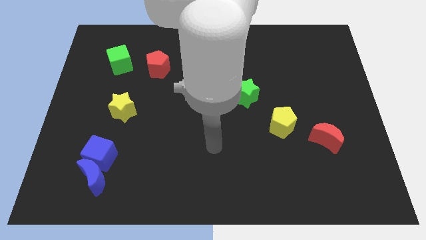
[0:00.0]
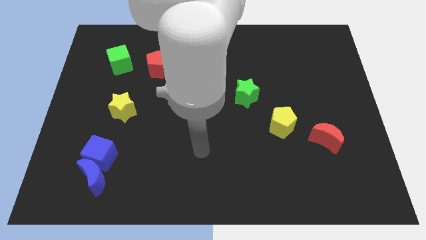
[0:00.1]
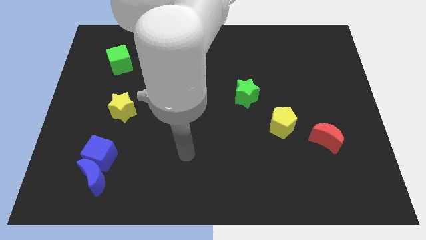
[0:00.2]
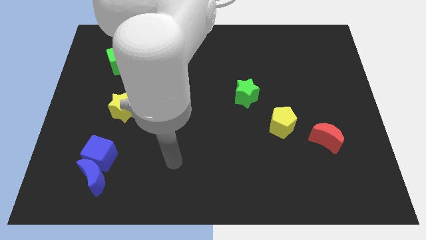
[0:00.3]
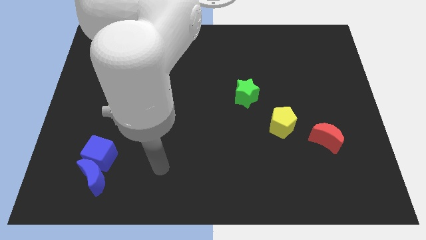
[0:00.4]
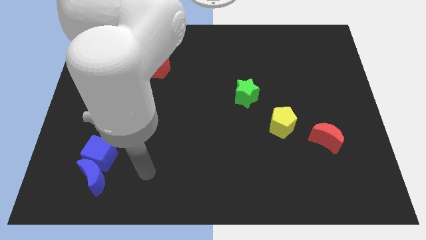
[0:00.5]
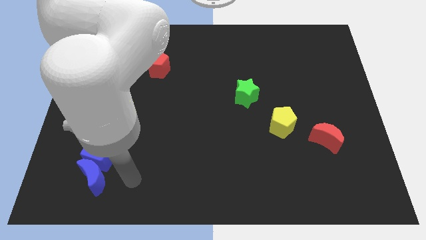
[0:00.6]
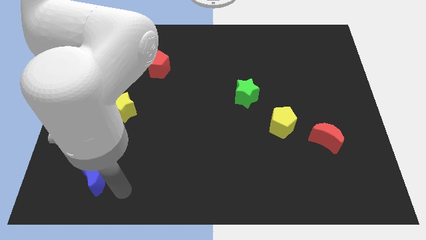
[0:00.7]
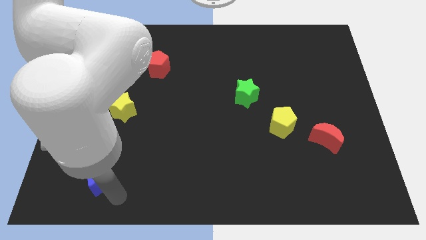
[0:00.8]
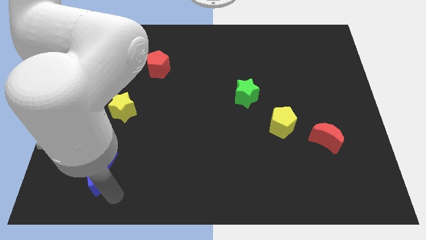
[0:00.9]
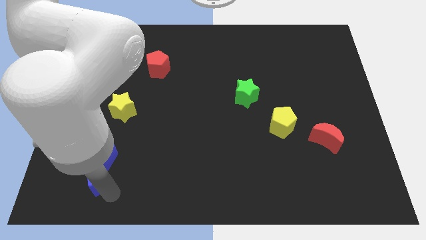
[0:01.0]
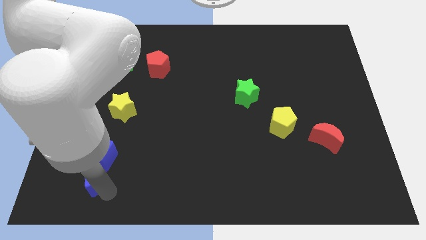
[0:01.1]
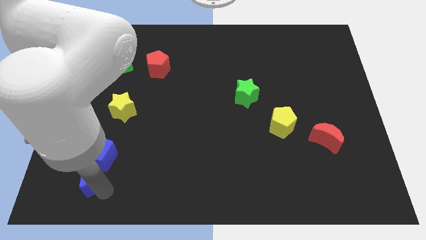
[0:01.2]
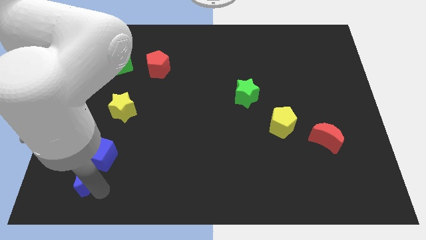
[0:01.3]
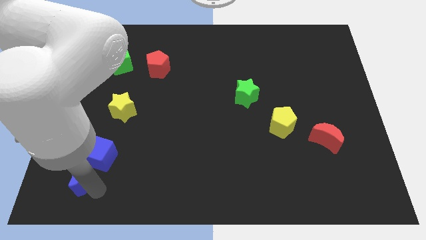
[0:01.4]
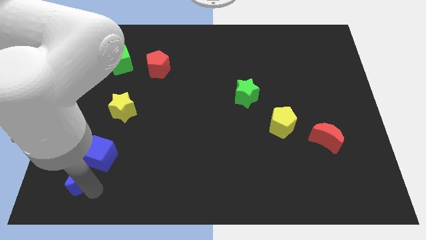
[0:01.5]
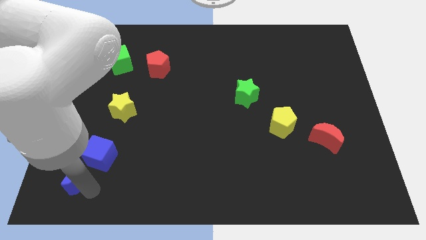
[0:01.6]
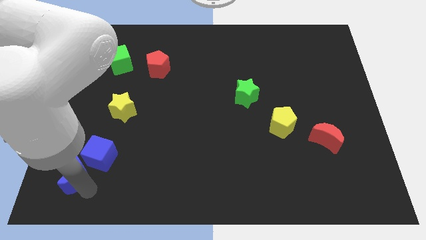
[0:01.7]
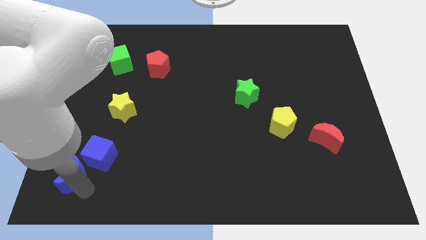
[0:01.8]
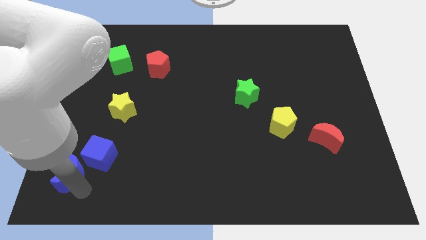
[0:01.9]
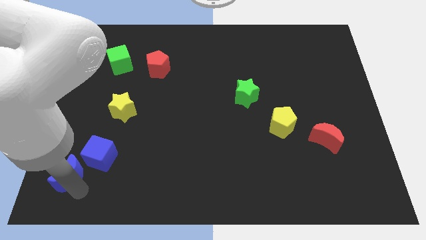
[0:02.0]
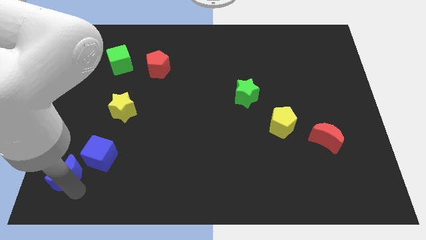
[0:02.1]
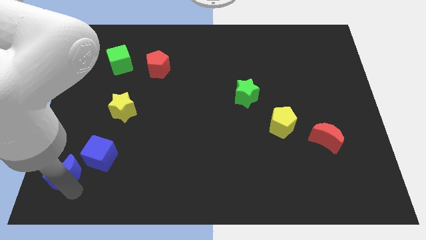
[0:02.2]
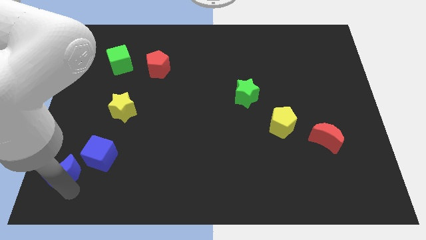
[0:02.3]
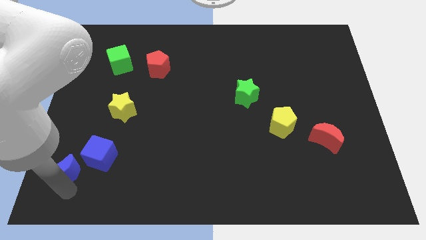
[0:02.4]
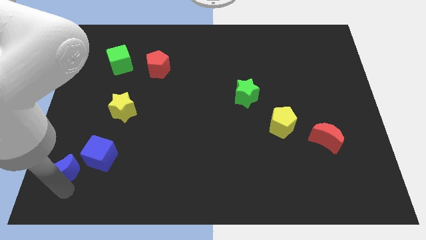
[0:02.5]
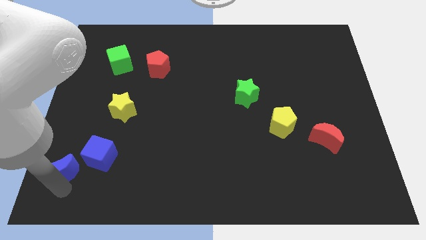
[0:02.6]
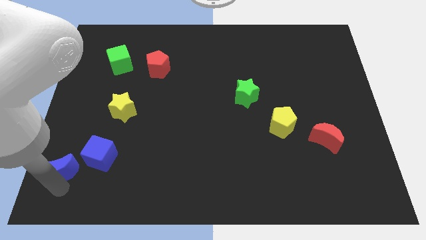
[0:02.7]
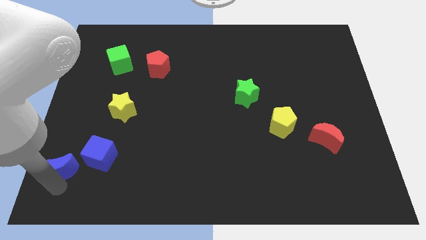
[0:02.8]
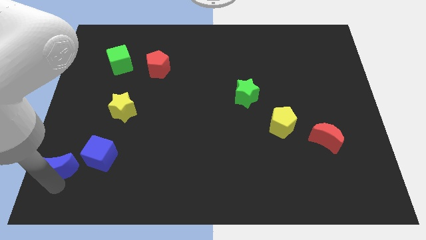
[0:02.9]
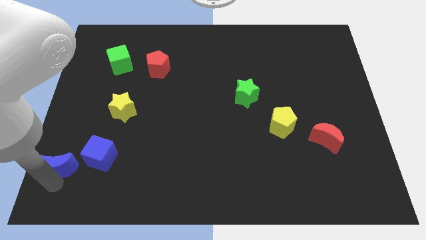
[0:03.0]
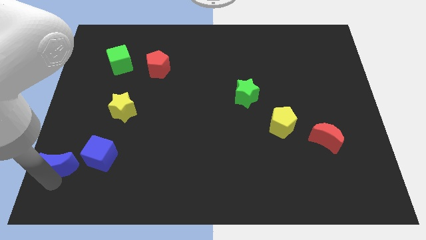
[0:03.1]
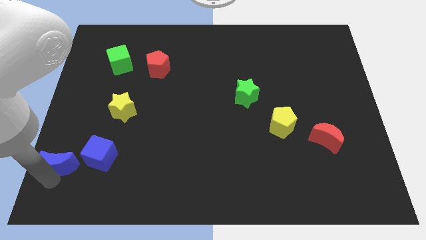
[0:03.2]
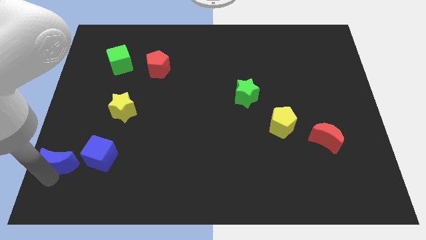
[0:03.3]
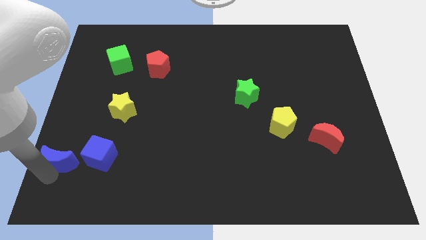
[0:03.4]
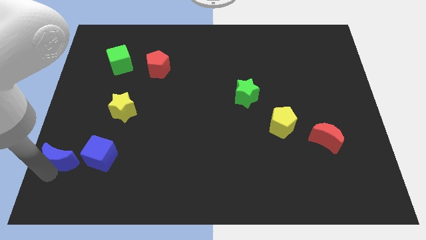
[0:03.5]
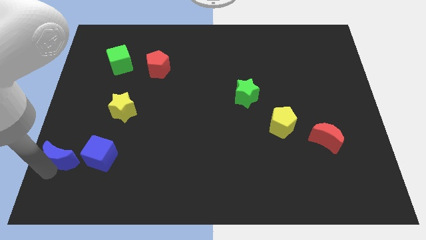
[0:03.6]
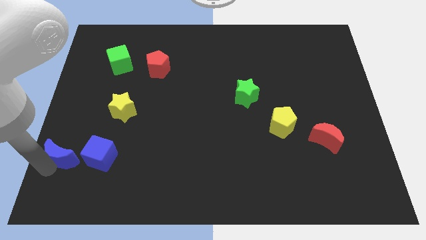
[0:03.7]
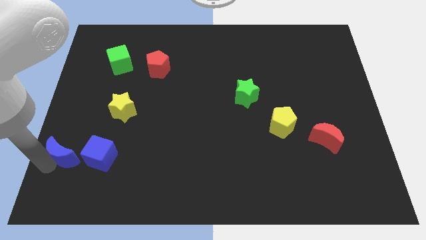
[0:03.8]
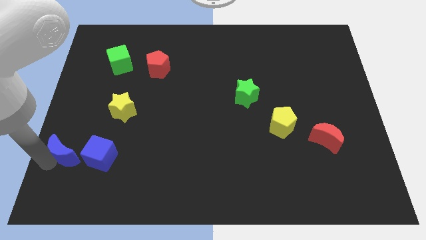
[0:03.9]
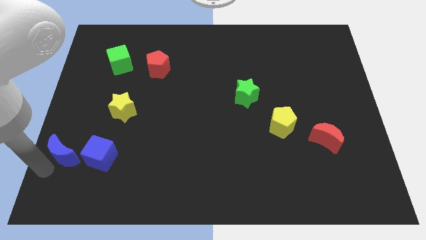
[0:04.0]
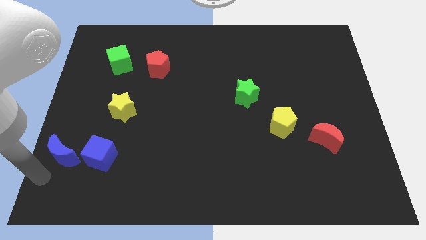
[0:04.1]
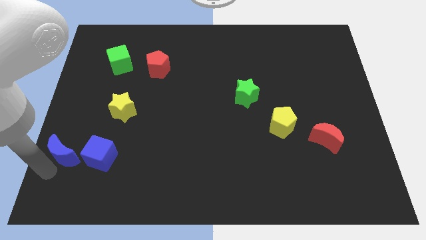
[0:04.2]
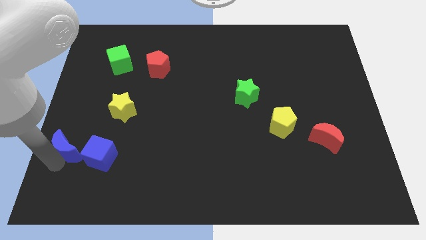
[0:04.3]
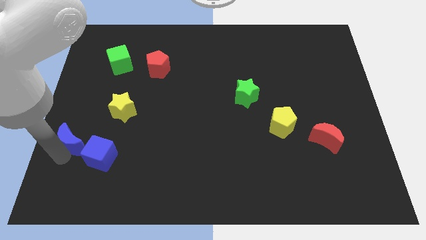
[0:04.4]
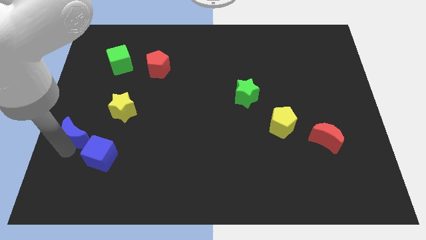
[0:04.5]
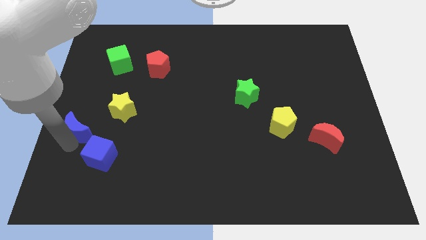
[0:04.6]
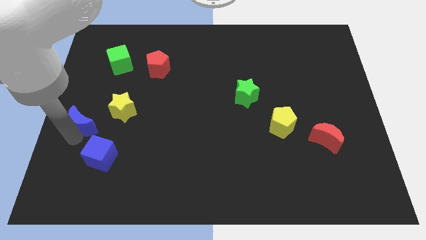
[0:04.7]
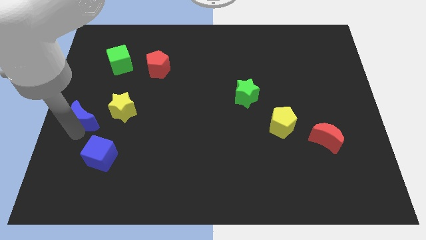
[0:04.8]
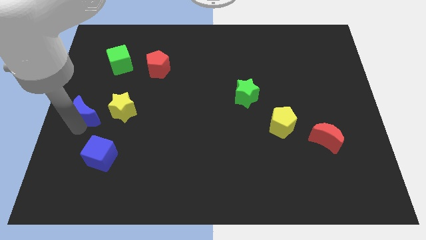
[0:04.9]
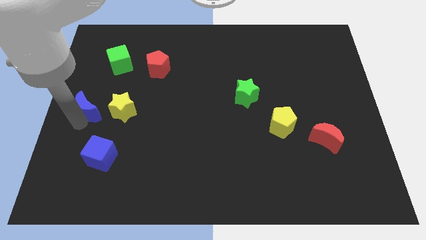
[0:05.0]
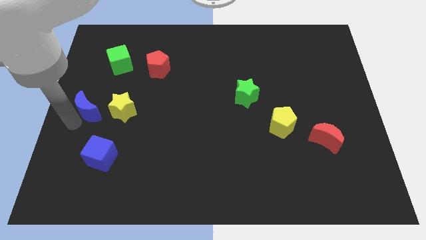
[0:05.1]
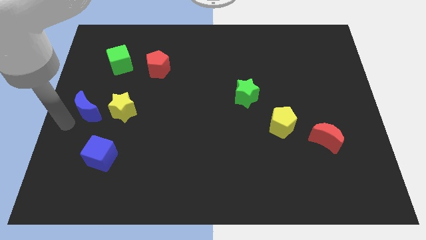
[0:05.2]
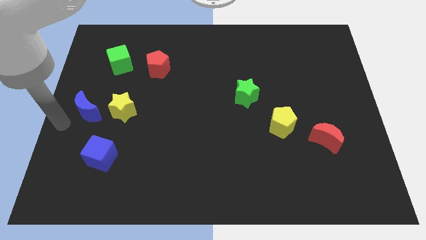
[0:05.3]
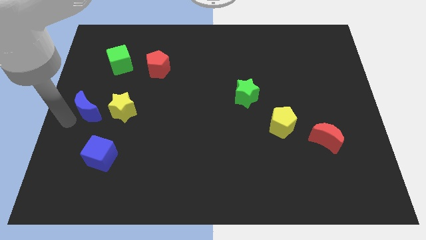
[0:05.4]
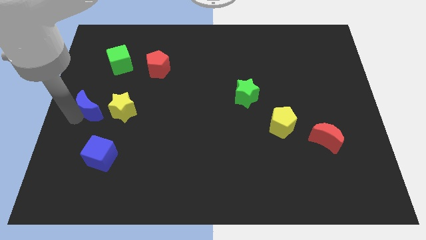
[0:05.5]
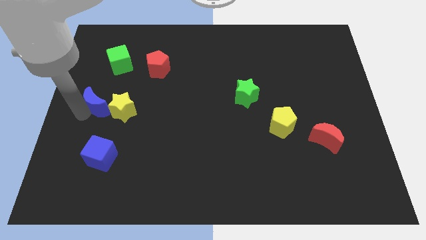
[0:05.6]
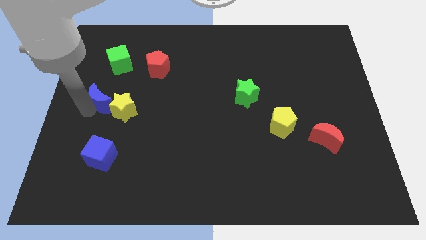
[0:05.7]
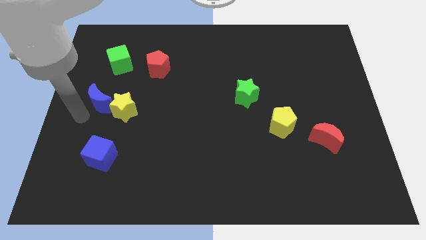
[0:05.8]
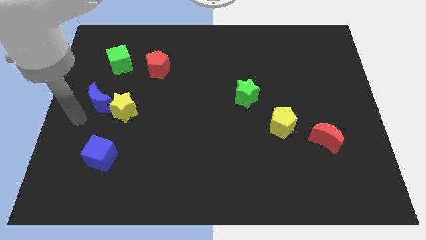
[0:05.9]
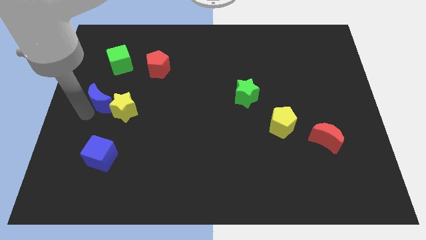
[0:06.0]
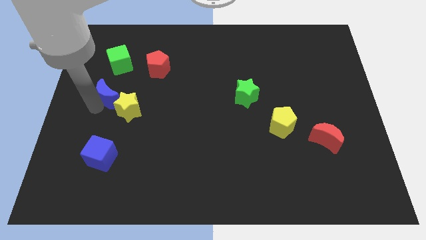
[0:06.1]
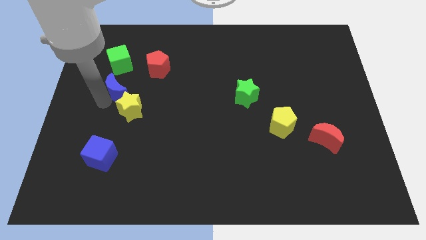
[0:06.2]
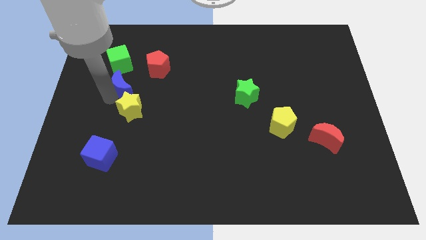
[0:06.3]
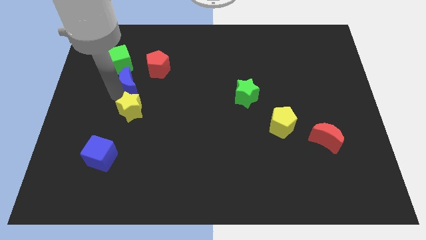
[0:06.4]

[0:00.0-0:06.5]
slide the blue moon to the bottom right side of the green cube
